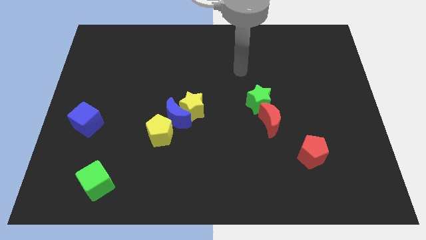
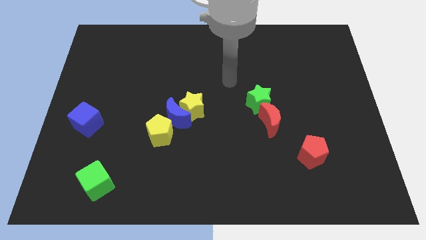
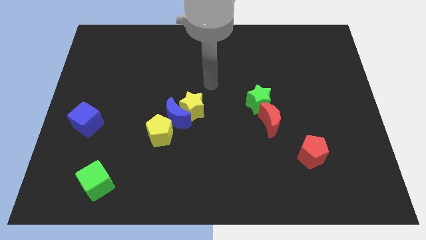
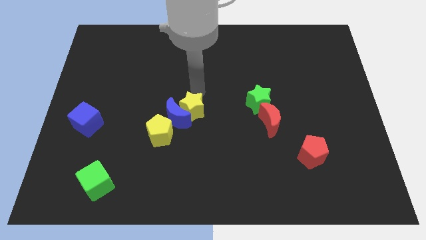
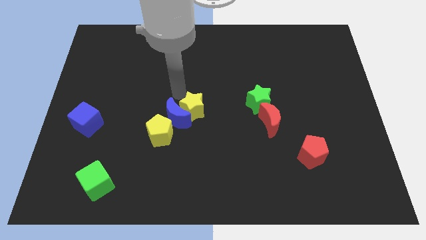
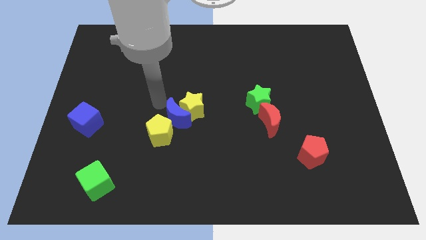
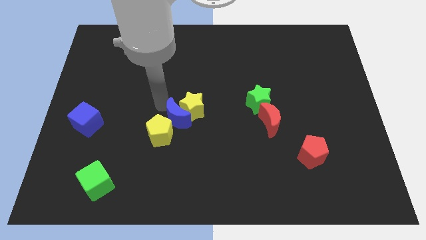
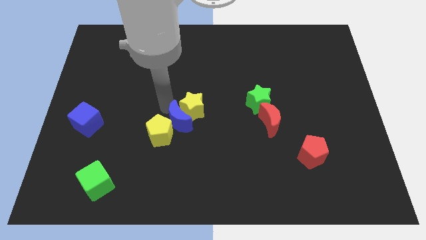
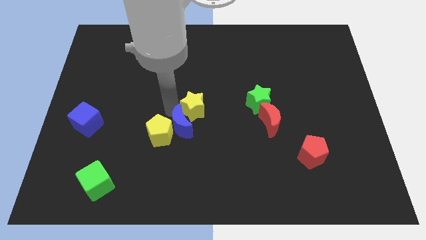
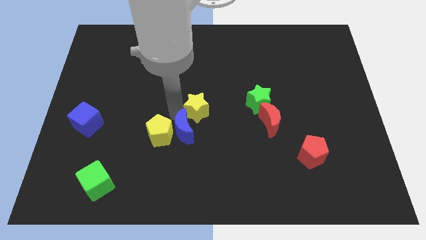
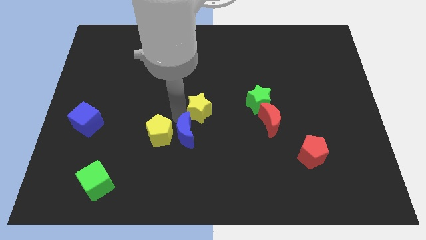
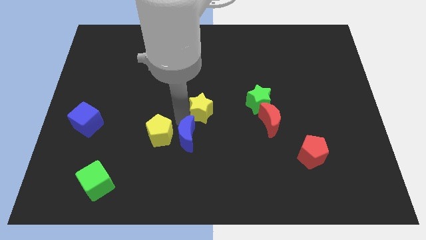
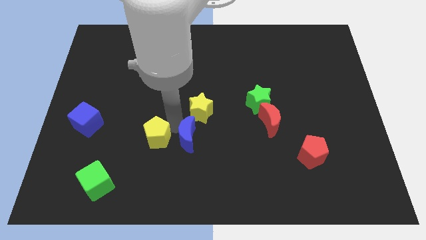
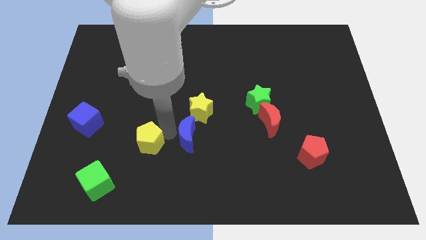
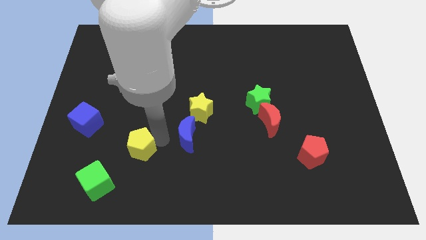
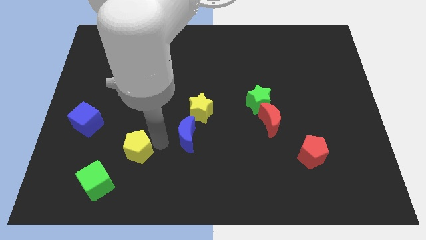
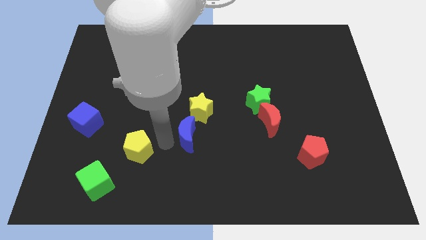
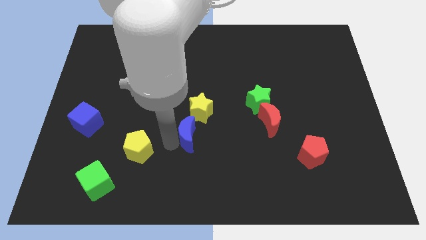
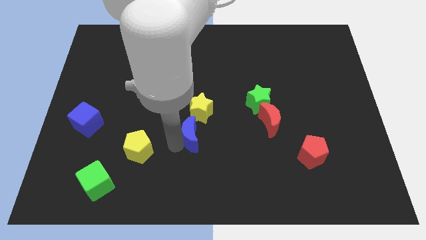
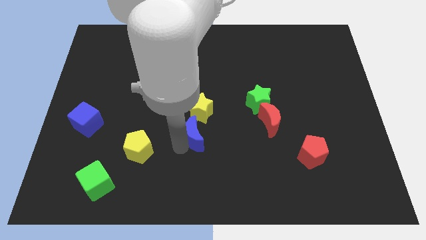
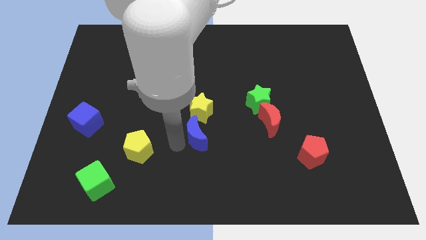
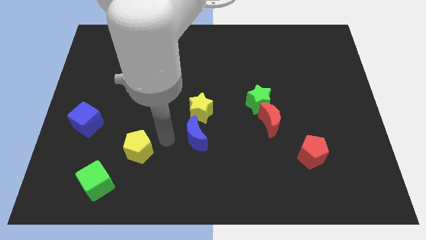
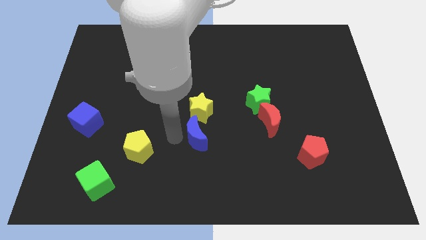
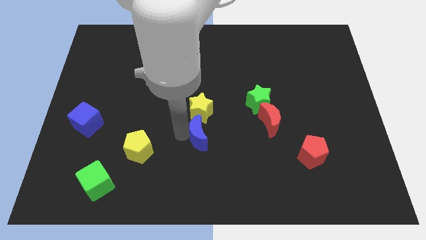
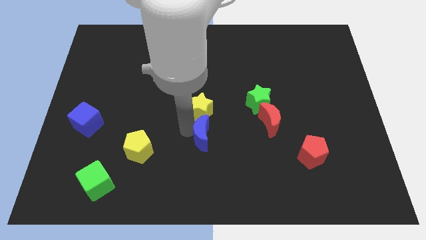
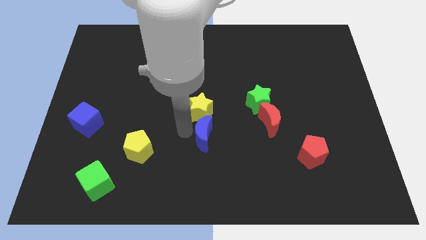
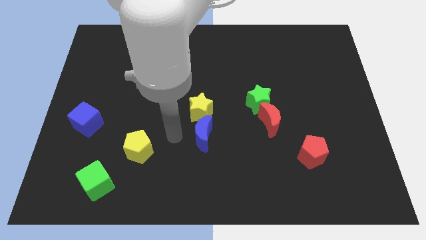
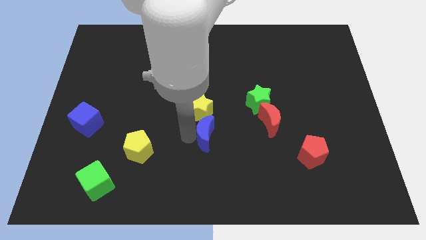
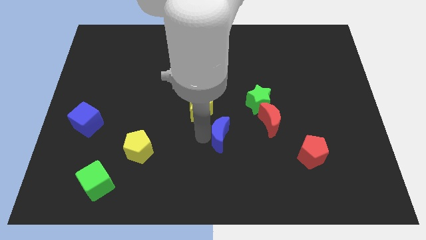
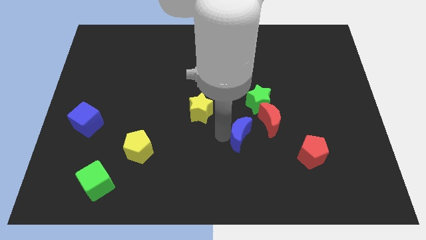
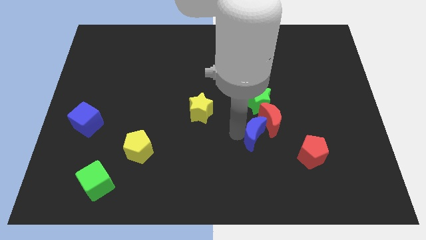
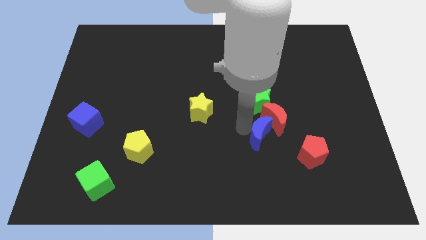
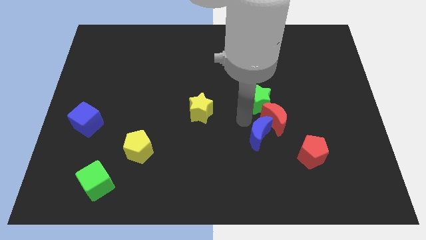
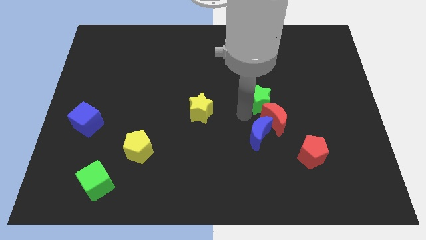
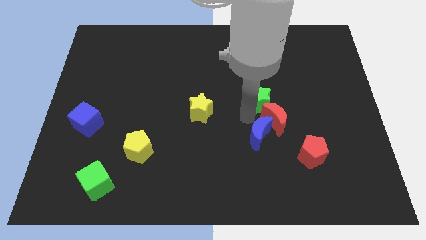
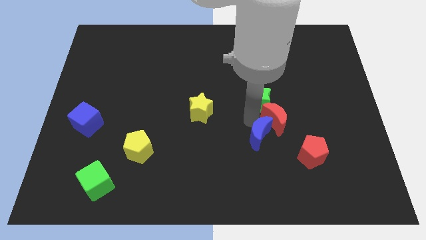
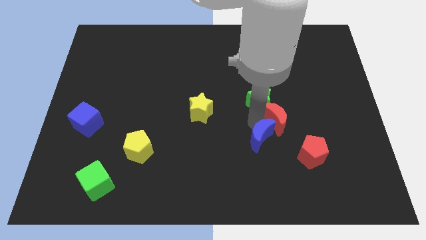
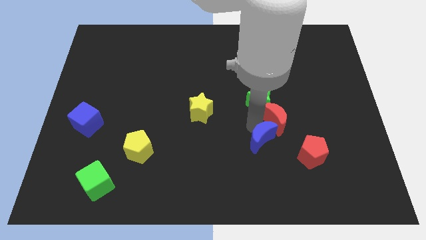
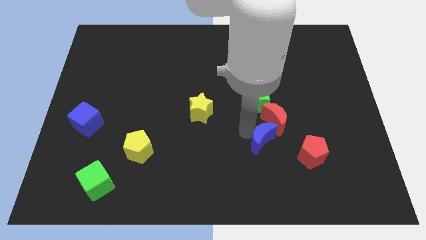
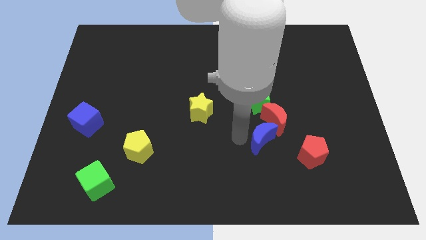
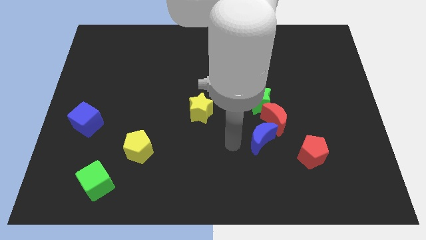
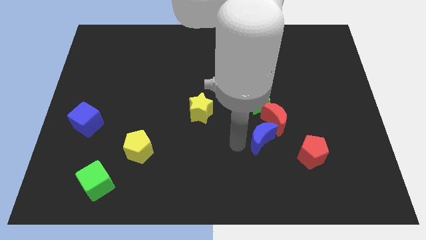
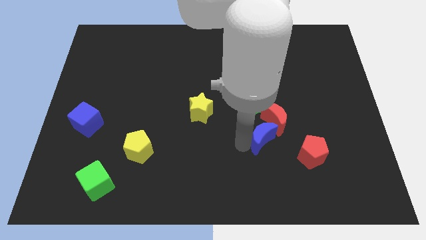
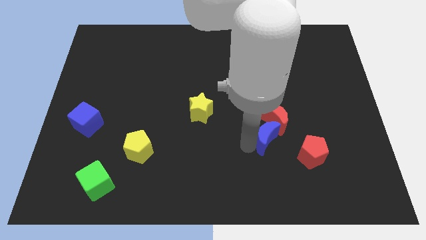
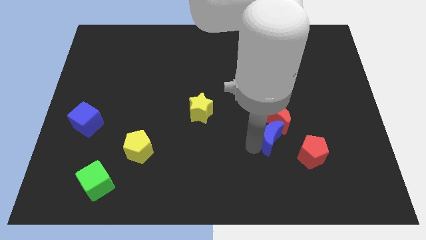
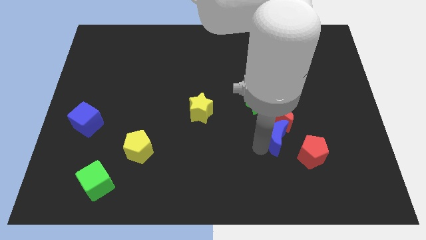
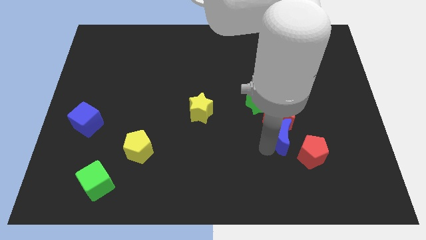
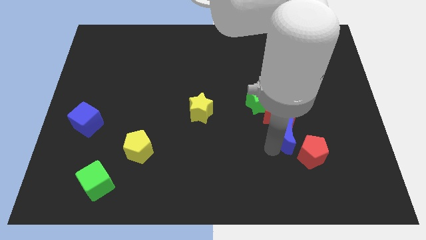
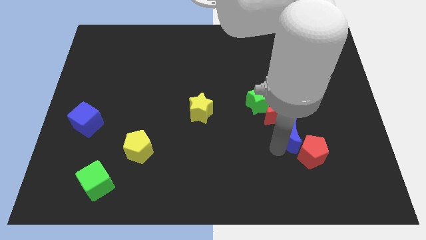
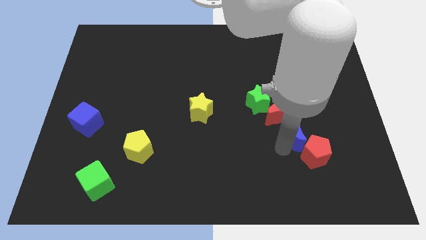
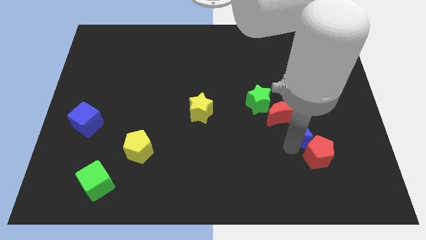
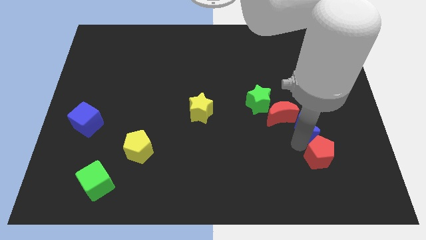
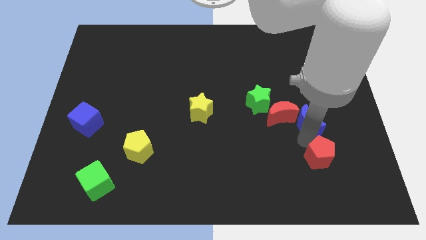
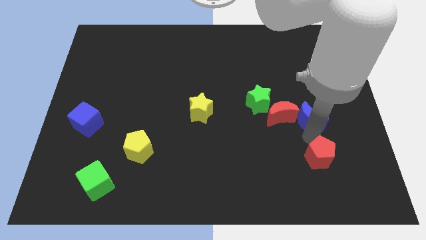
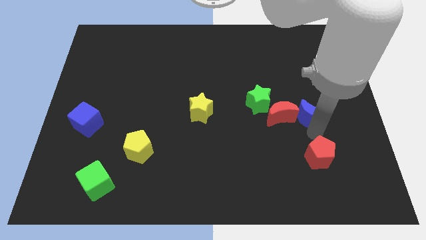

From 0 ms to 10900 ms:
push the blue moon to the right of the green star

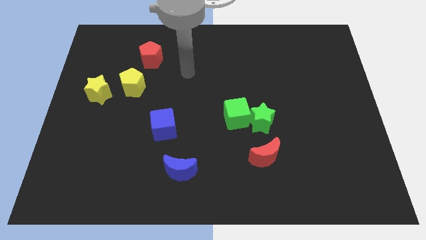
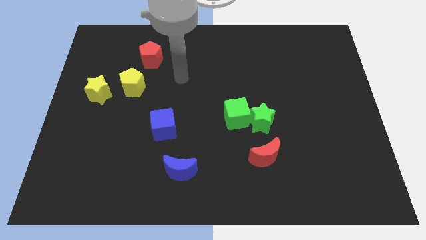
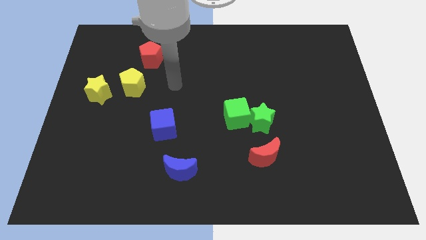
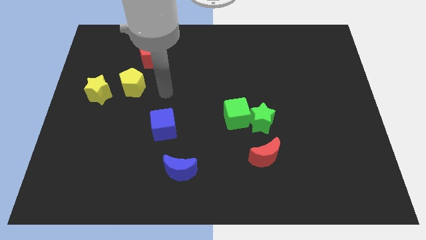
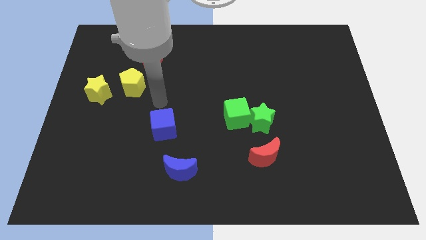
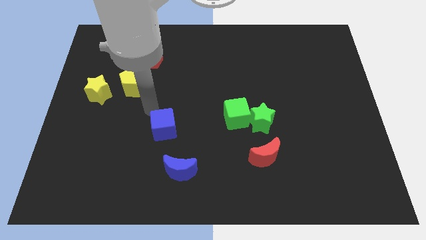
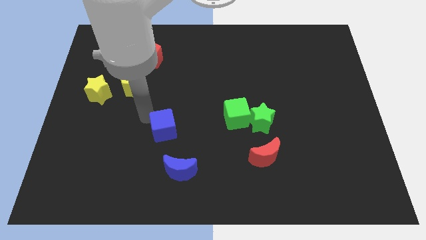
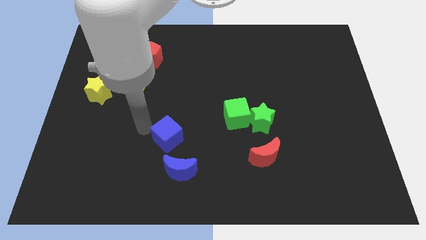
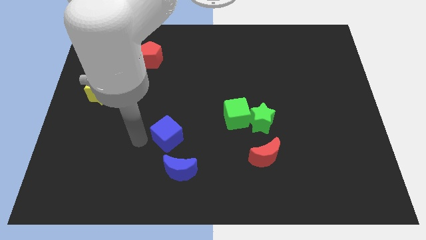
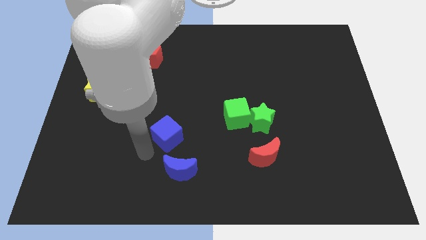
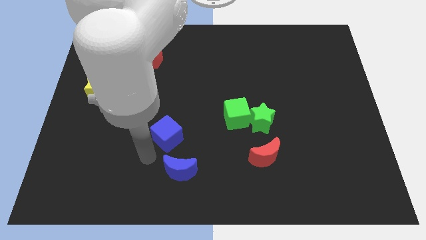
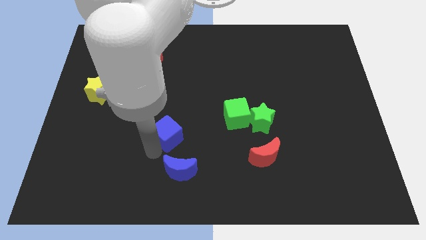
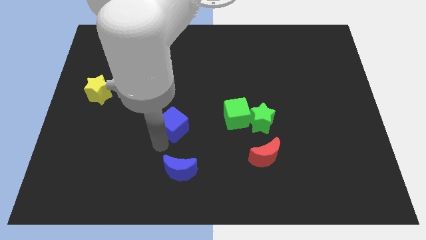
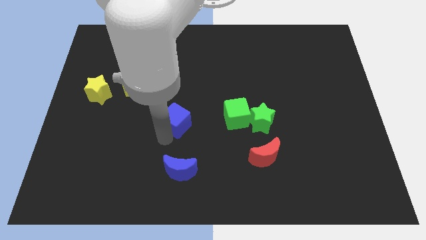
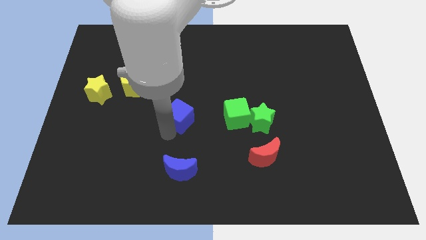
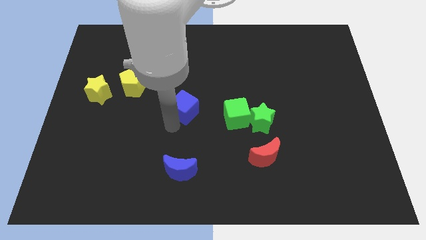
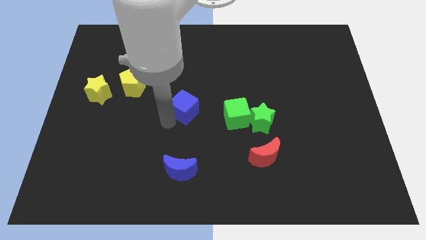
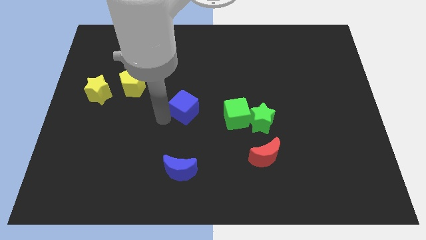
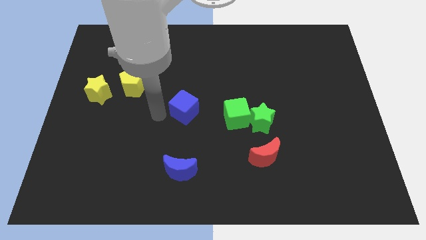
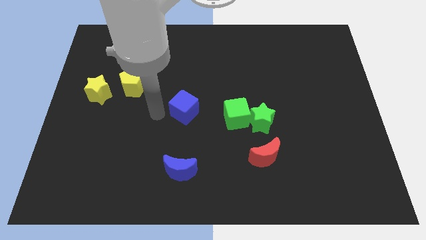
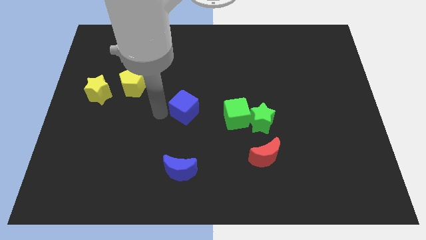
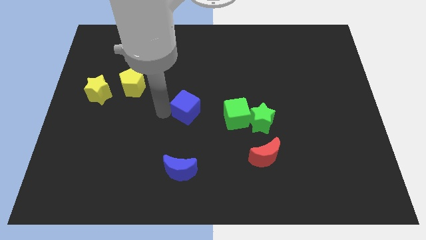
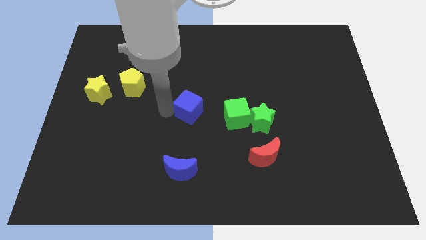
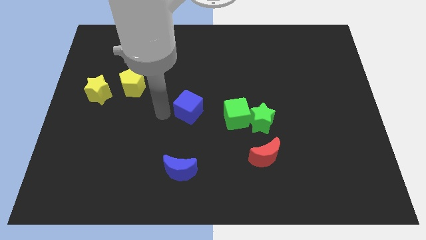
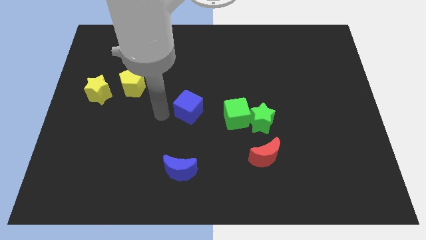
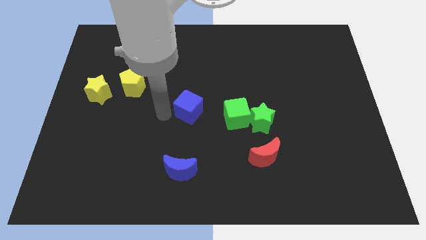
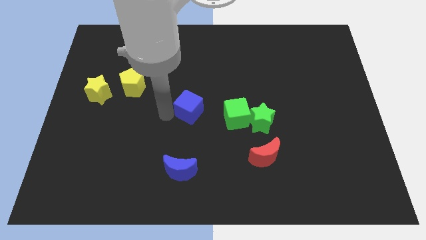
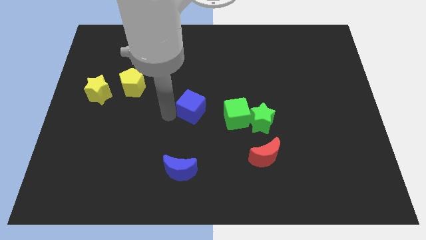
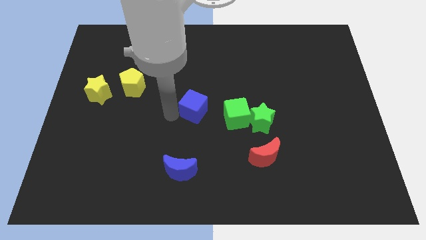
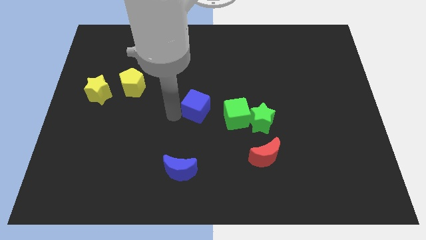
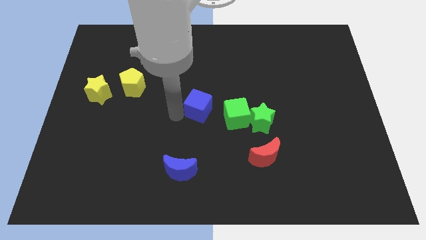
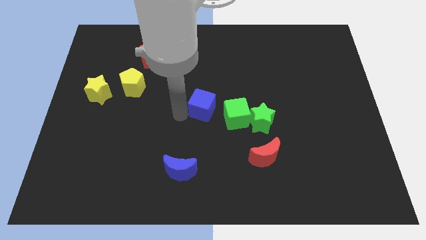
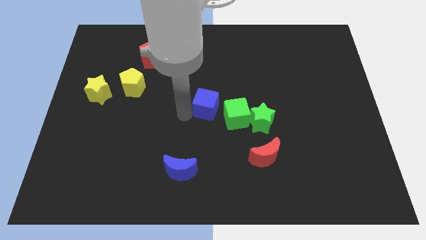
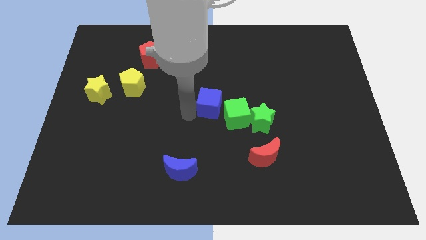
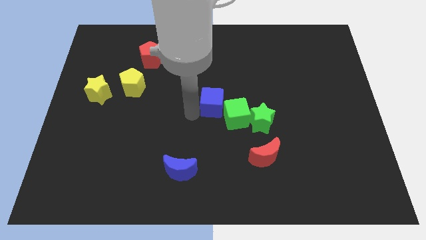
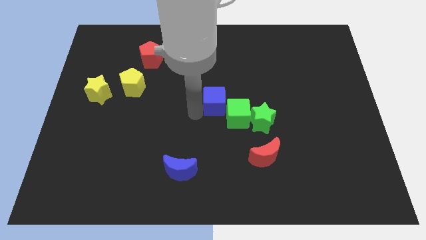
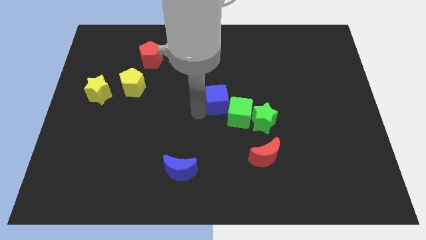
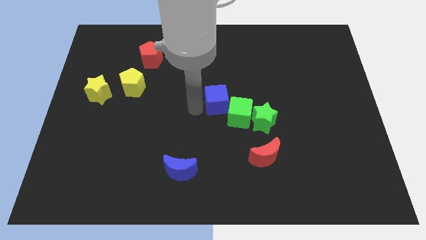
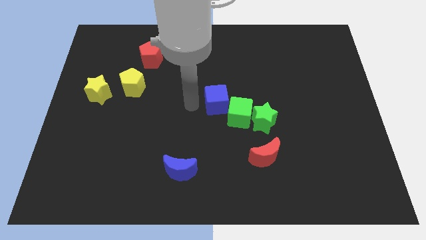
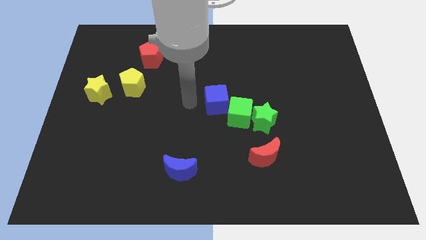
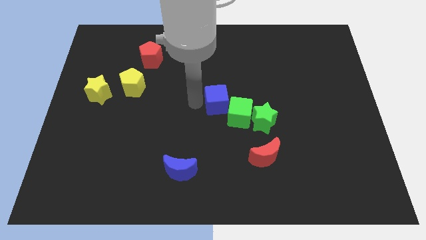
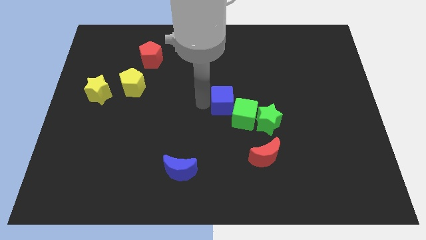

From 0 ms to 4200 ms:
move the blue cube to the top left of the green star
